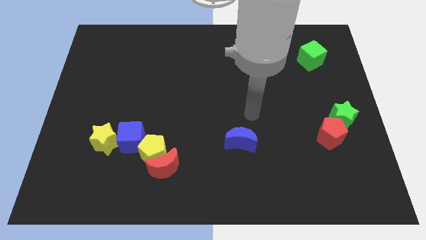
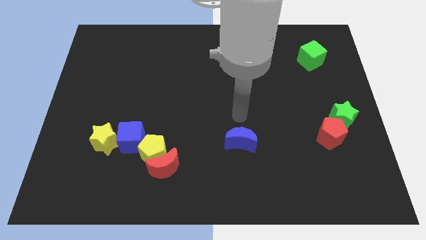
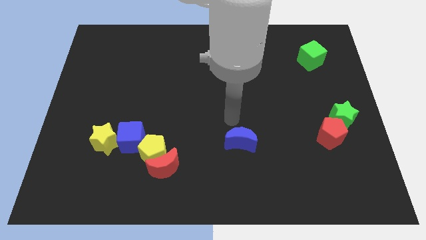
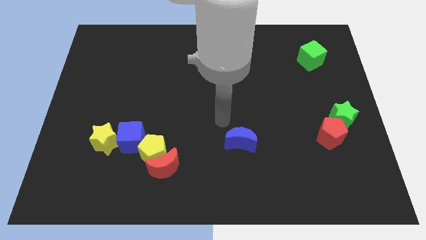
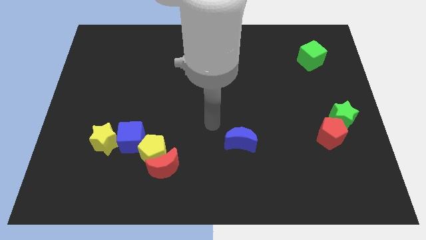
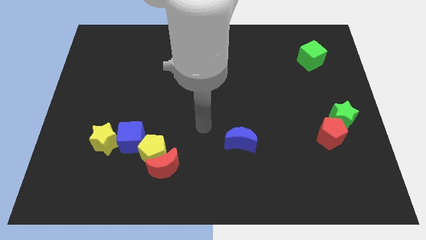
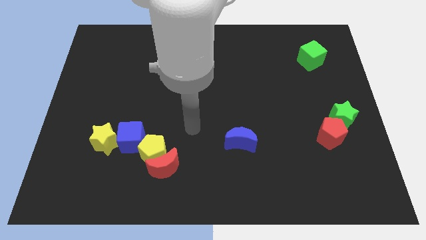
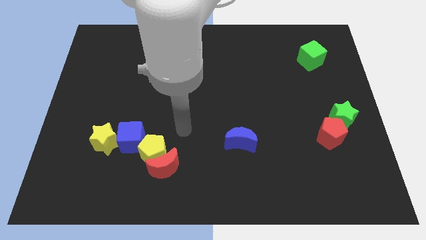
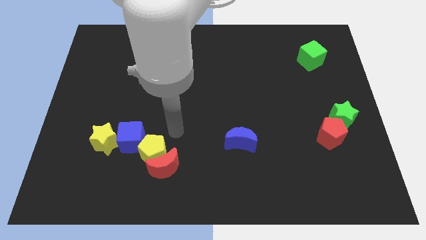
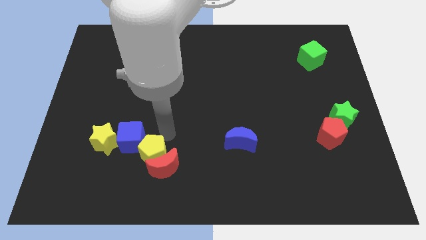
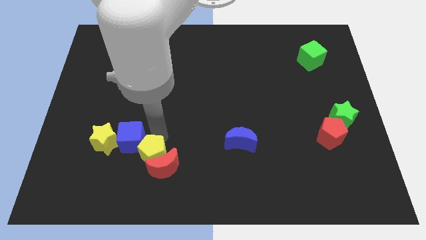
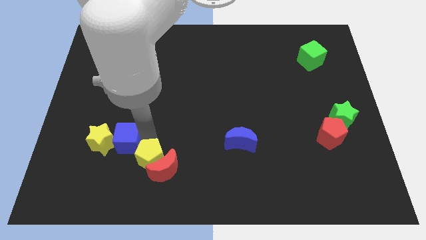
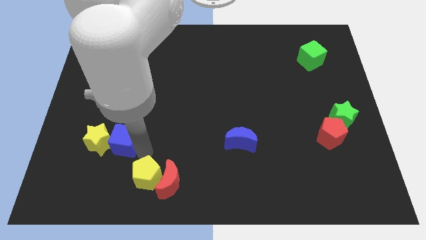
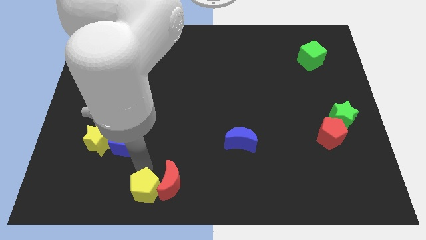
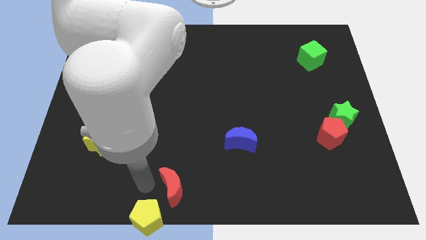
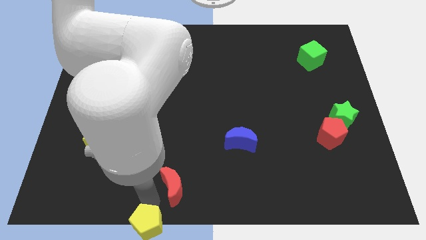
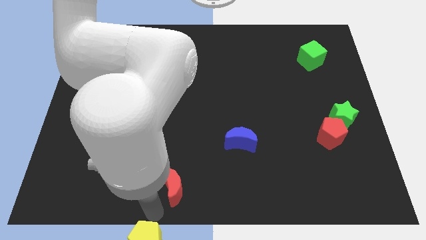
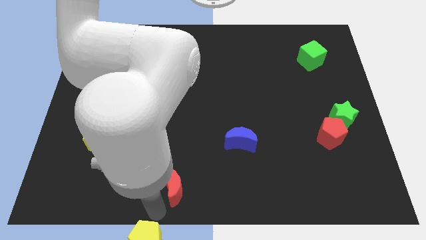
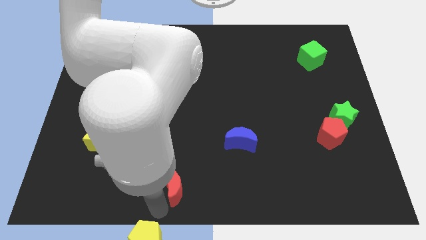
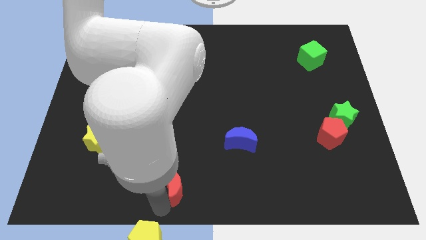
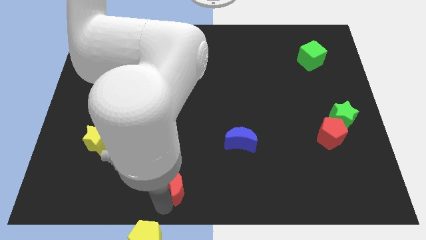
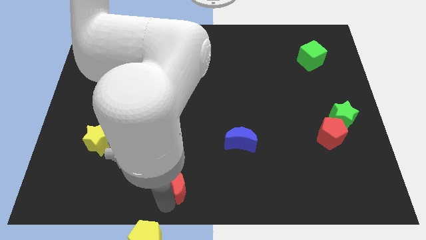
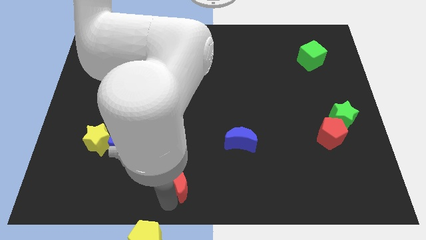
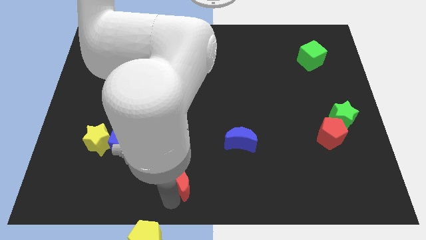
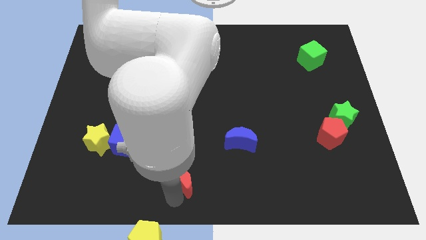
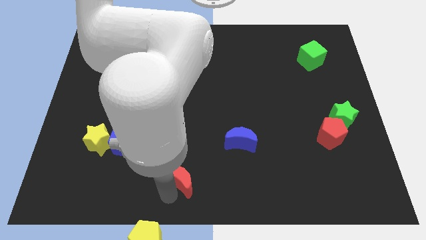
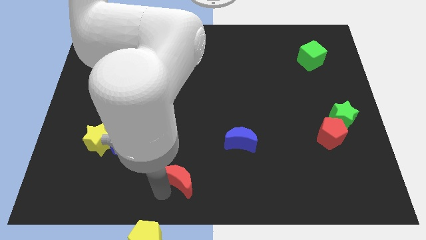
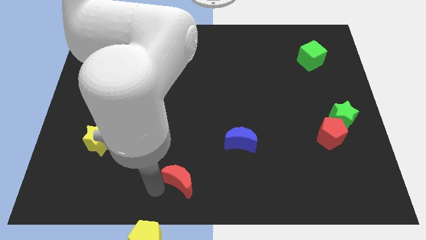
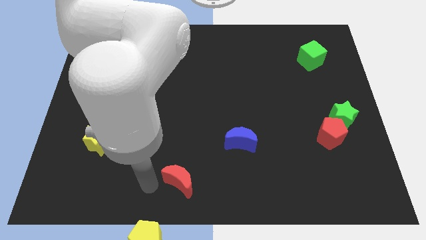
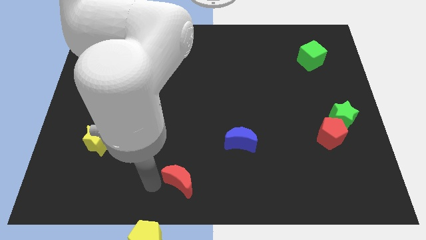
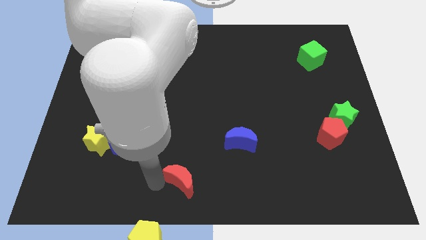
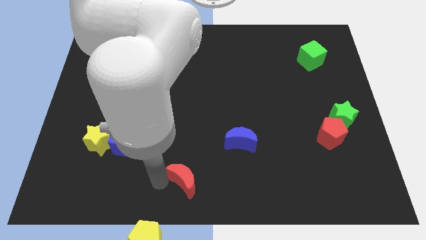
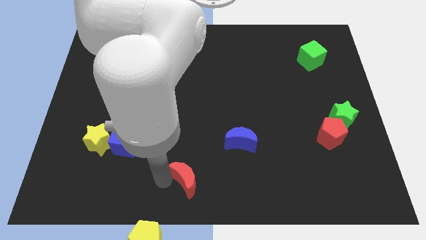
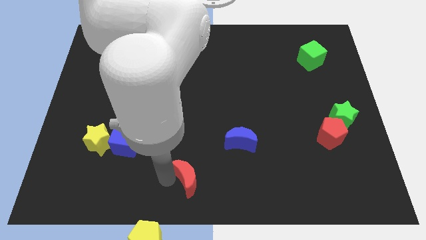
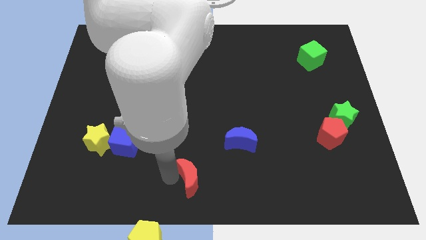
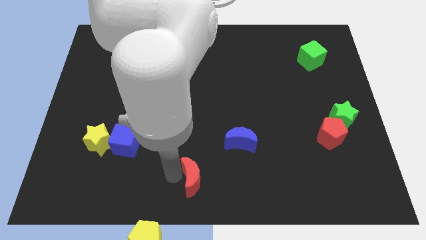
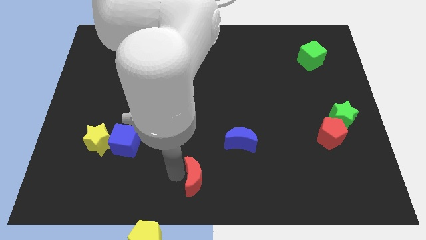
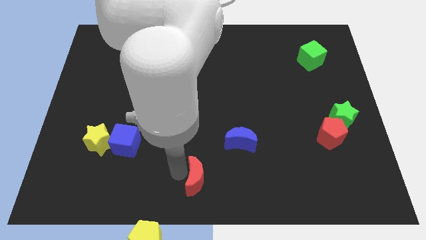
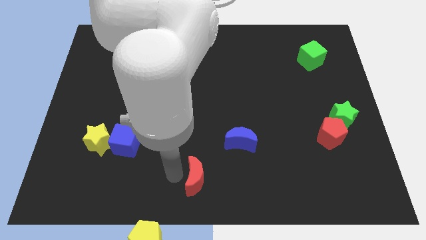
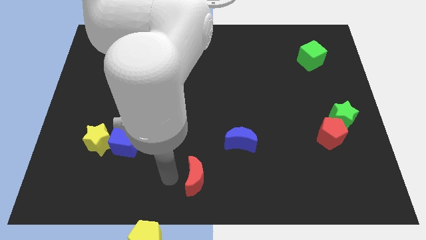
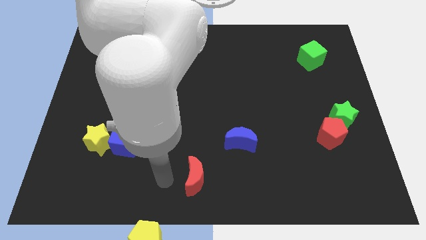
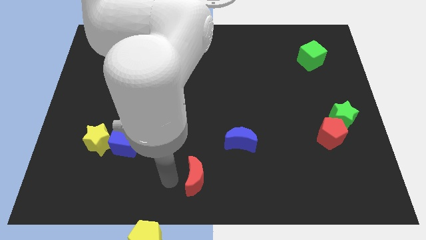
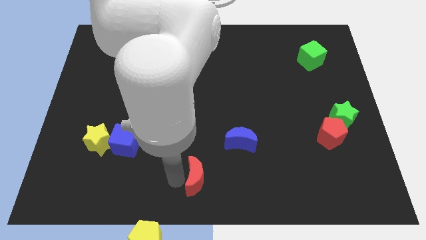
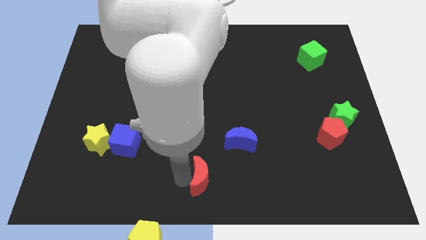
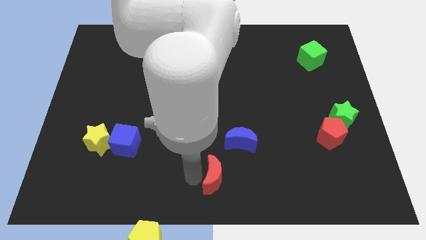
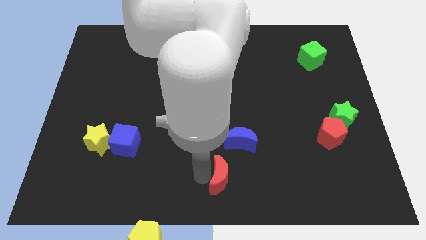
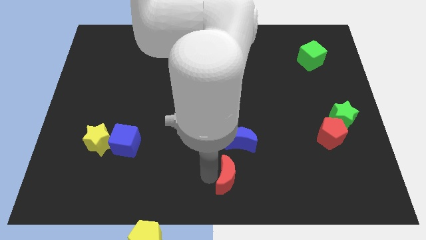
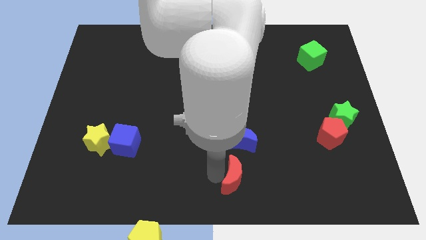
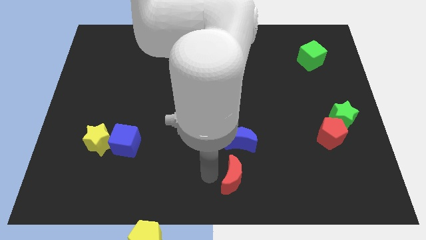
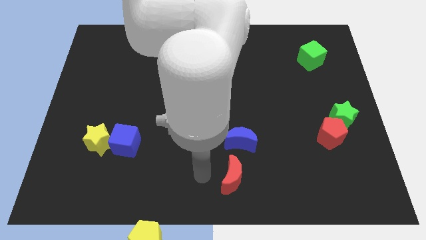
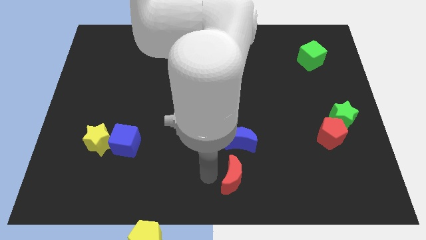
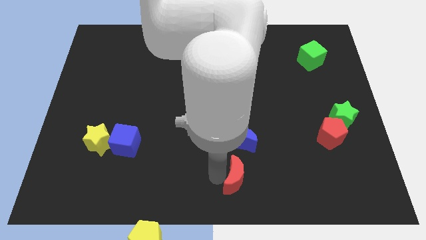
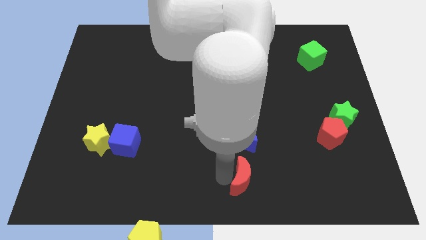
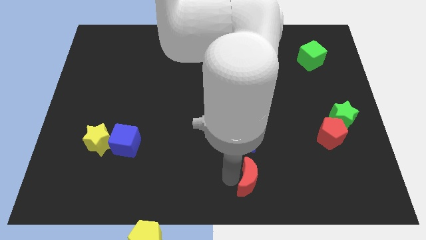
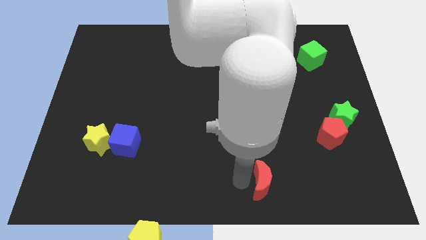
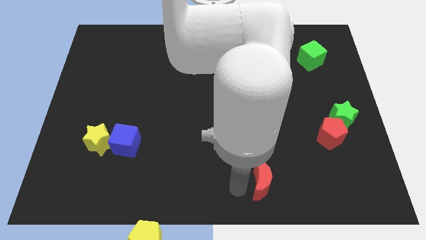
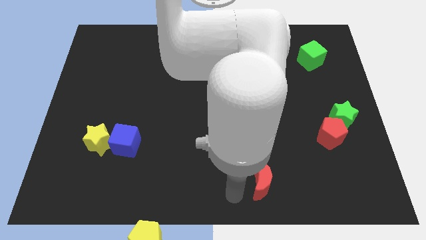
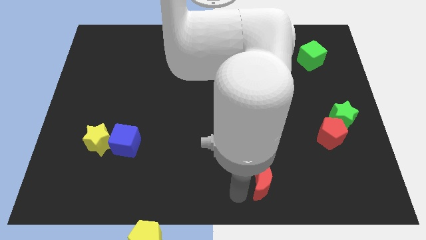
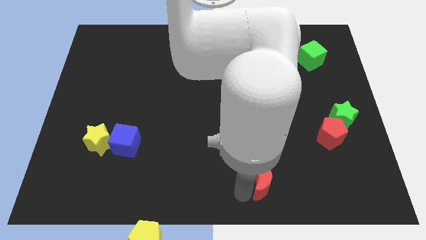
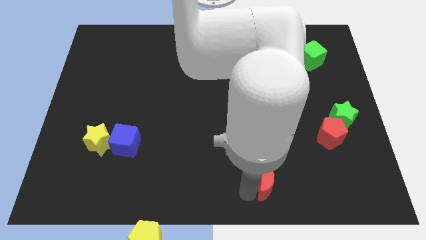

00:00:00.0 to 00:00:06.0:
push the red moon to the right

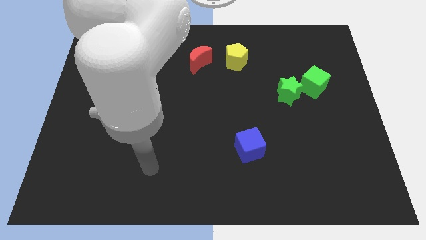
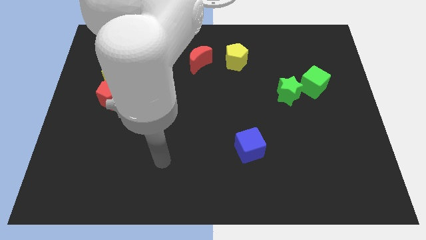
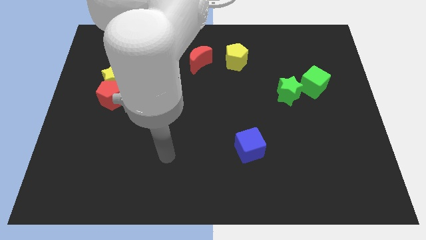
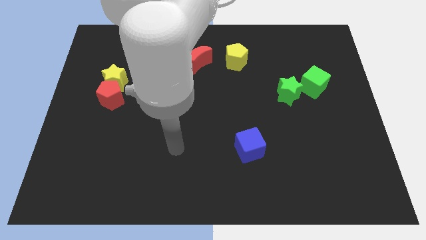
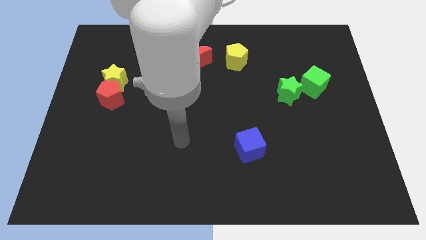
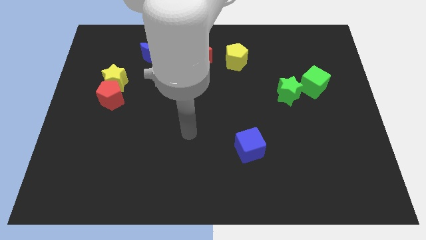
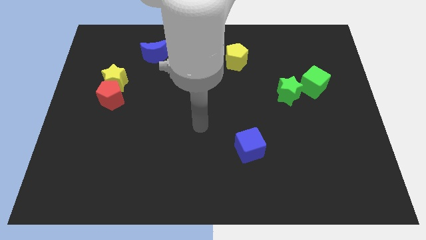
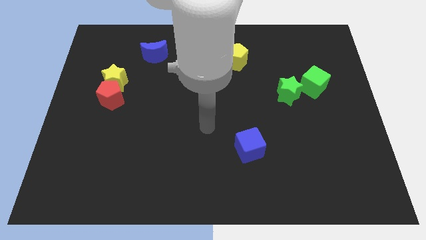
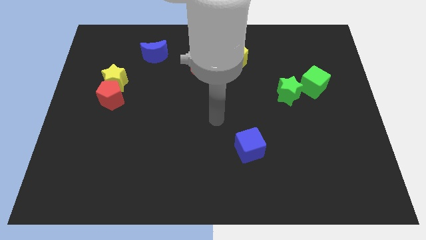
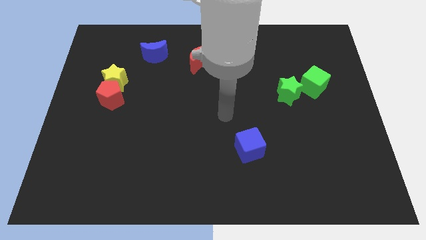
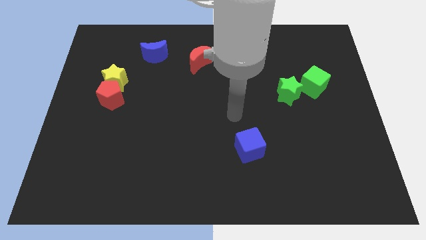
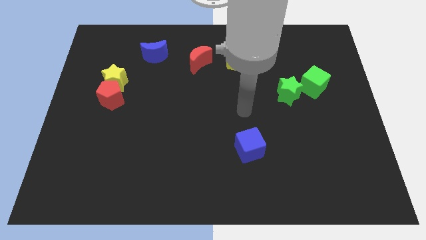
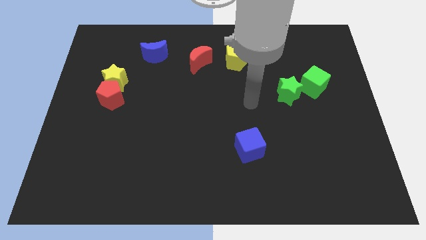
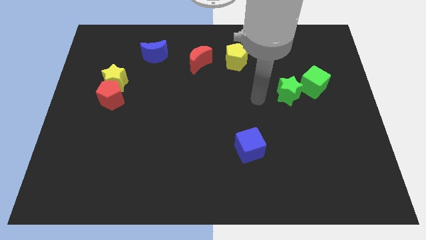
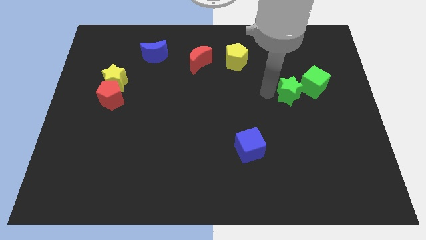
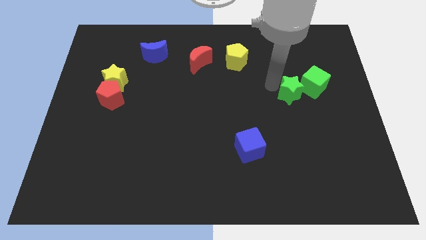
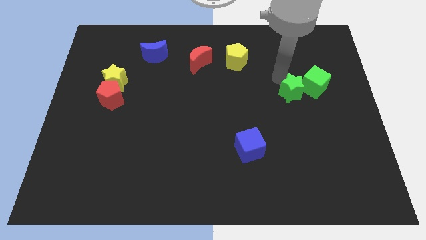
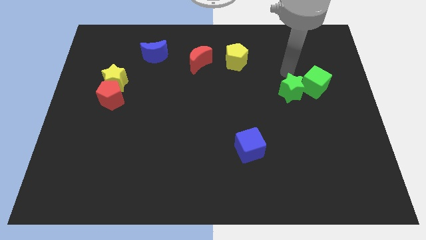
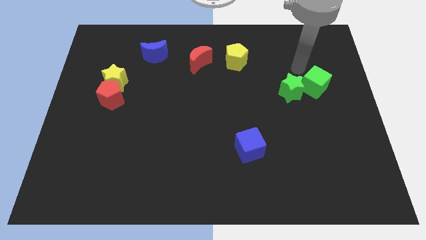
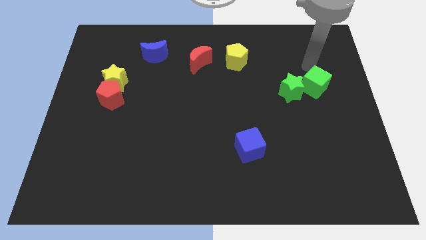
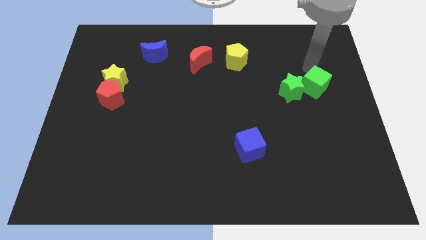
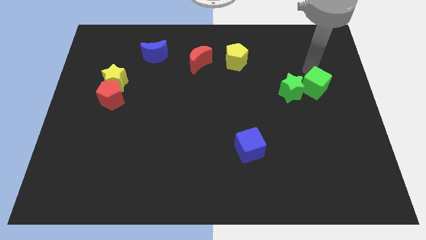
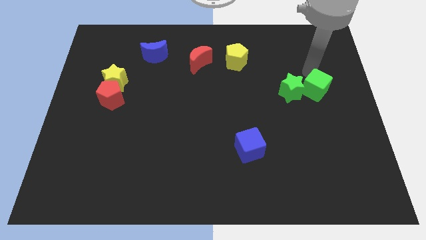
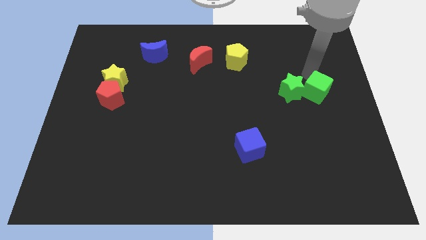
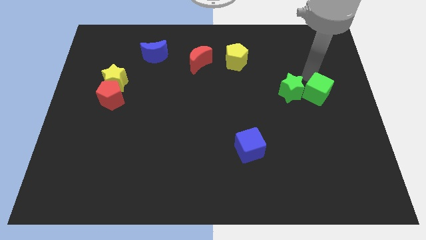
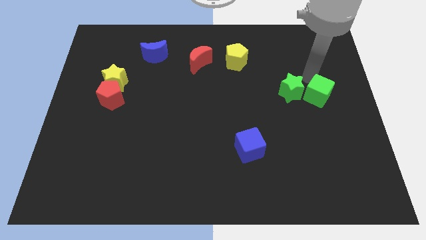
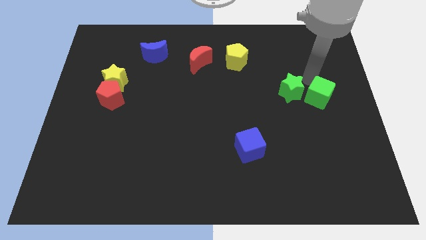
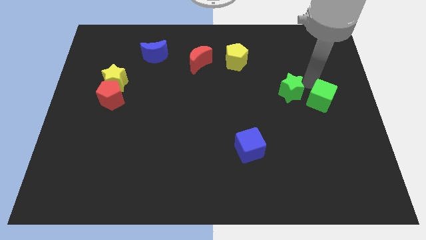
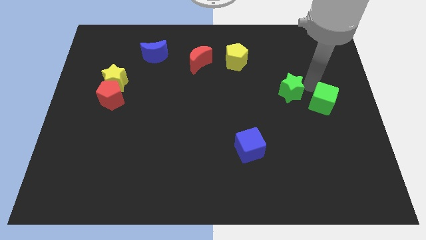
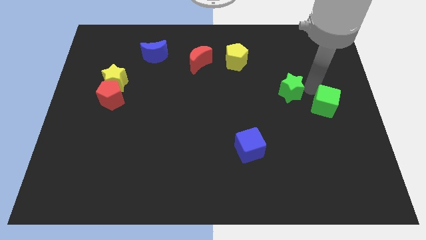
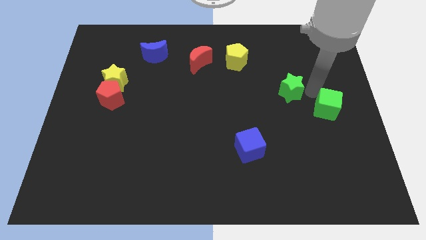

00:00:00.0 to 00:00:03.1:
slightly push the green cube downwards
